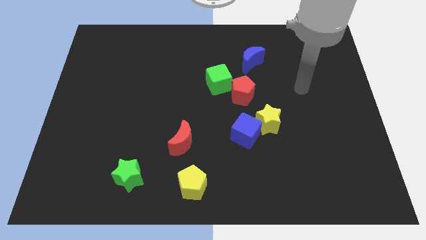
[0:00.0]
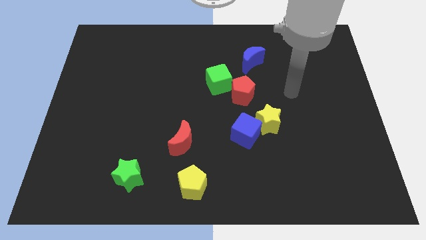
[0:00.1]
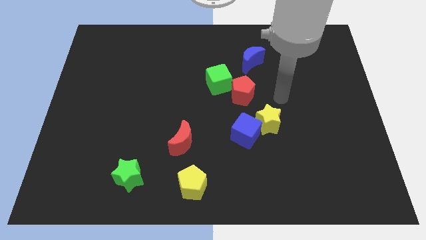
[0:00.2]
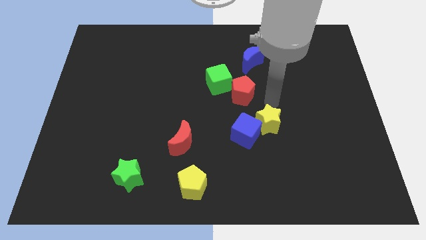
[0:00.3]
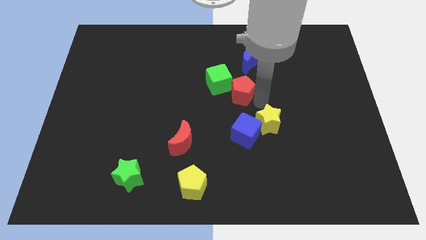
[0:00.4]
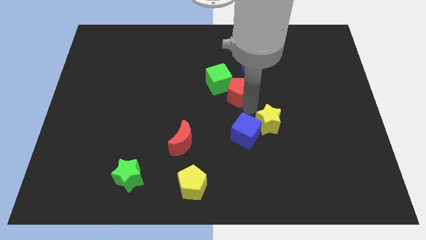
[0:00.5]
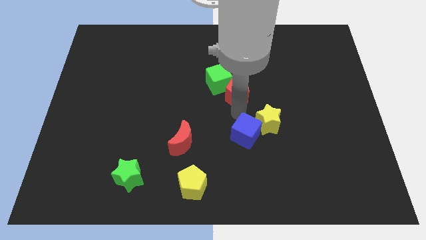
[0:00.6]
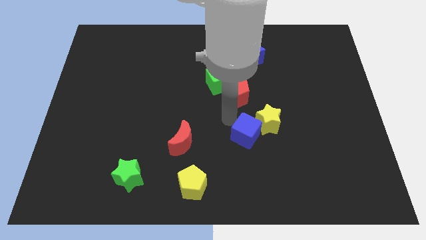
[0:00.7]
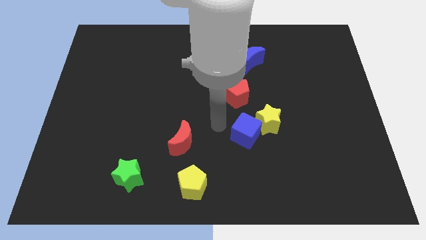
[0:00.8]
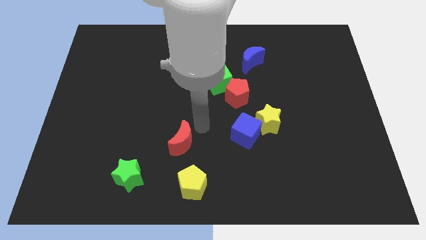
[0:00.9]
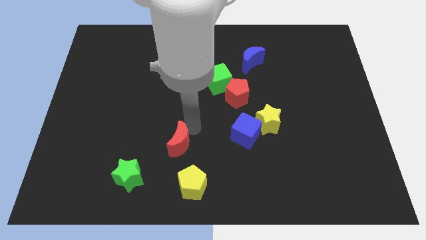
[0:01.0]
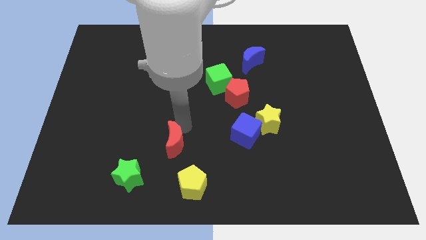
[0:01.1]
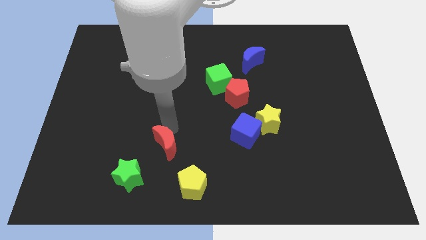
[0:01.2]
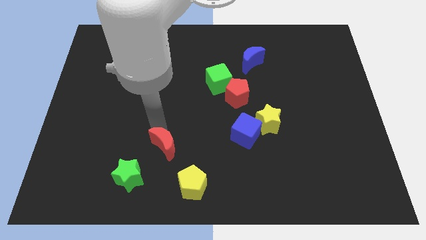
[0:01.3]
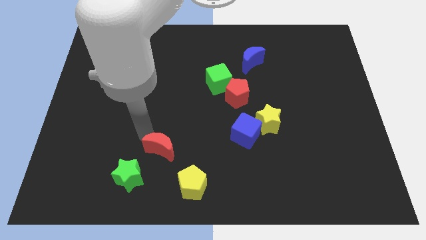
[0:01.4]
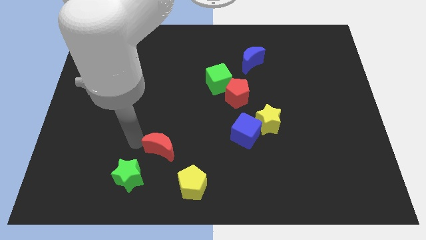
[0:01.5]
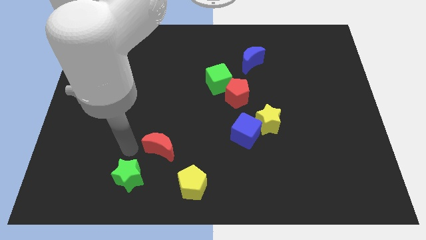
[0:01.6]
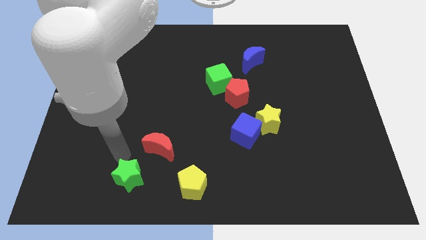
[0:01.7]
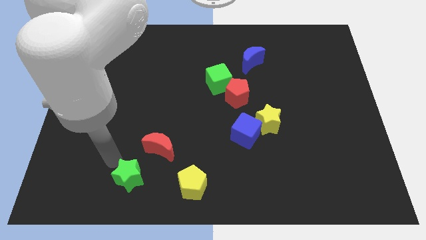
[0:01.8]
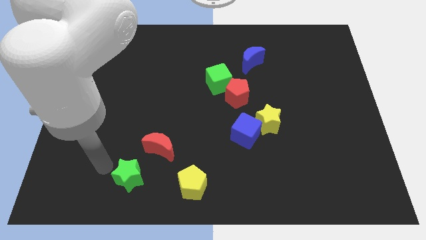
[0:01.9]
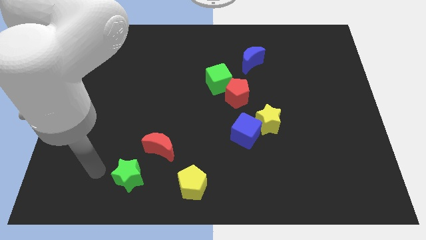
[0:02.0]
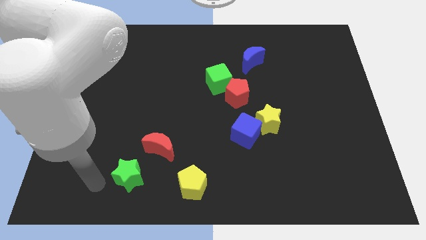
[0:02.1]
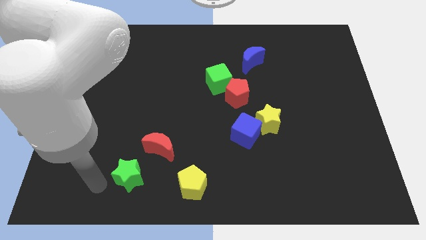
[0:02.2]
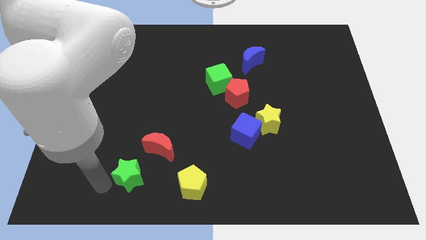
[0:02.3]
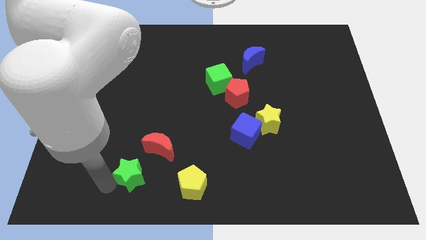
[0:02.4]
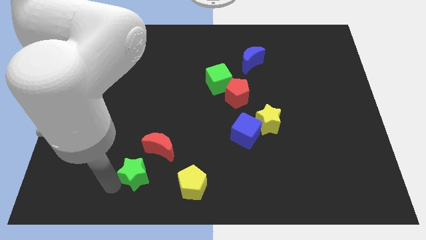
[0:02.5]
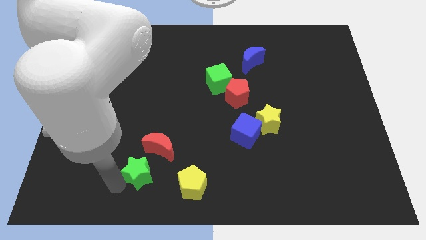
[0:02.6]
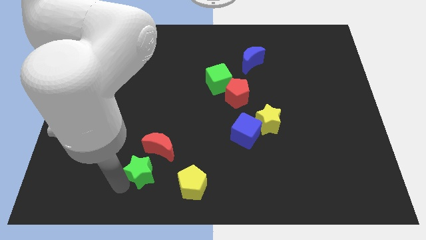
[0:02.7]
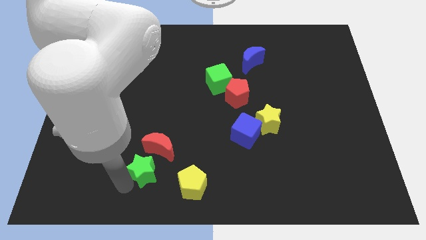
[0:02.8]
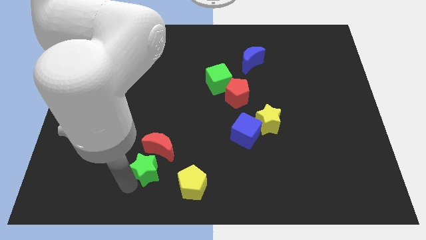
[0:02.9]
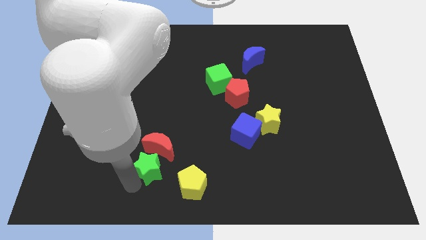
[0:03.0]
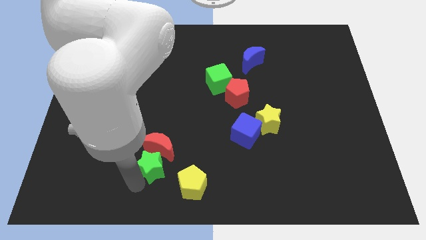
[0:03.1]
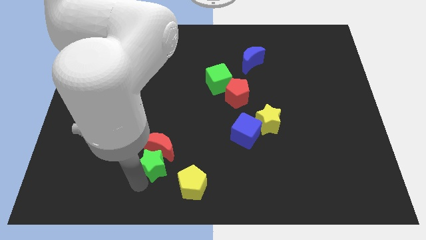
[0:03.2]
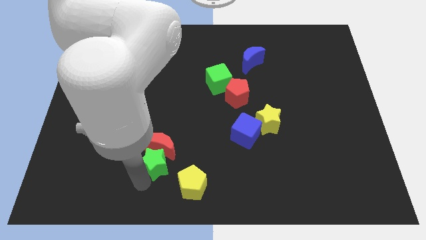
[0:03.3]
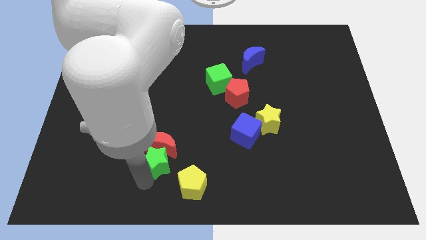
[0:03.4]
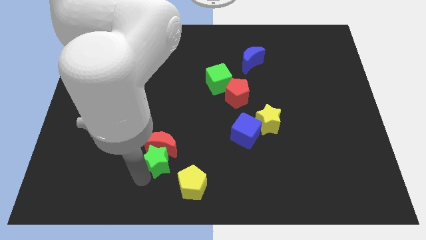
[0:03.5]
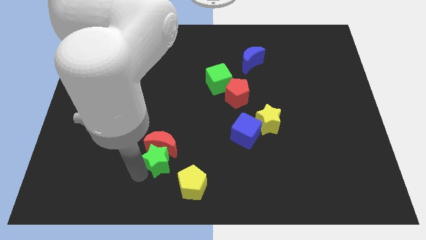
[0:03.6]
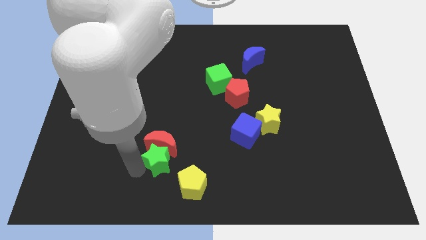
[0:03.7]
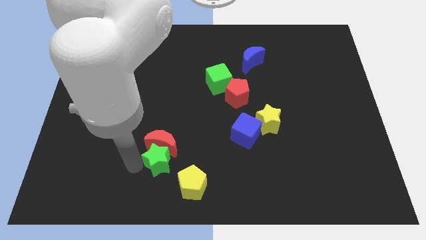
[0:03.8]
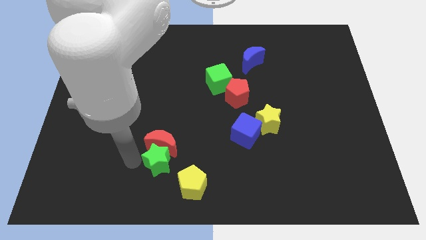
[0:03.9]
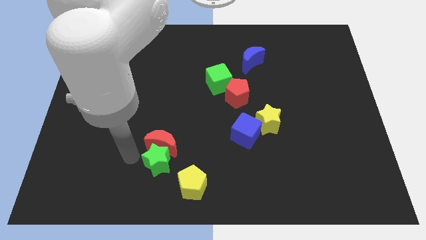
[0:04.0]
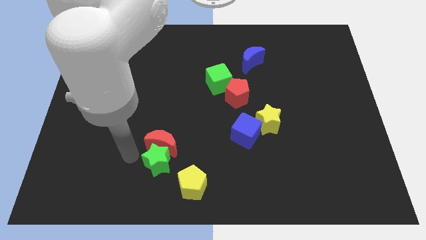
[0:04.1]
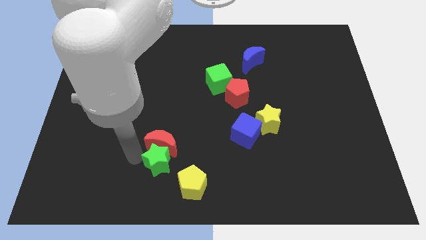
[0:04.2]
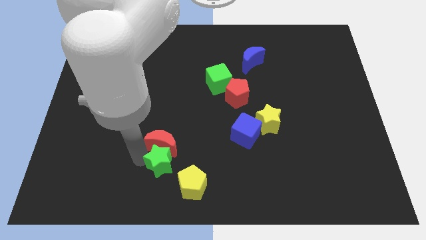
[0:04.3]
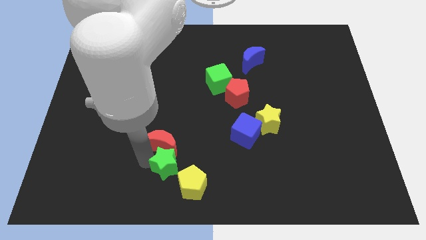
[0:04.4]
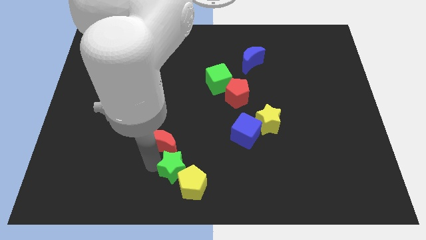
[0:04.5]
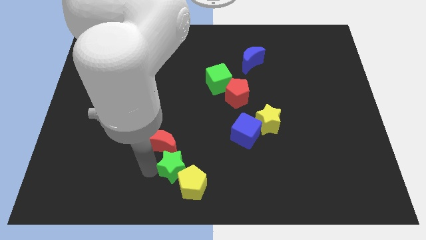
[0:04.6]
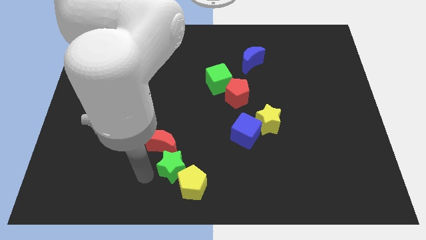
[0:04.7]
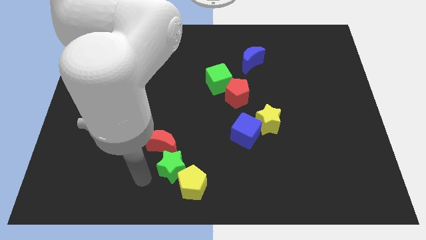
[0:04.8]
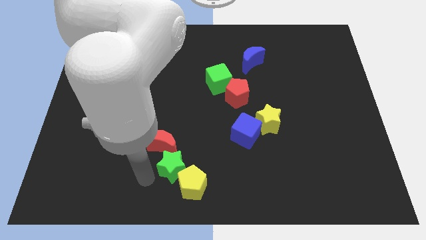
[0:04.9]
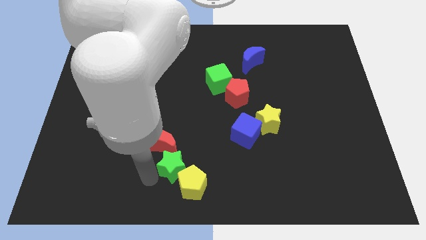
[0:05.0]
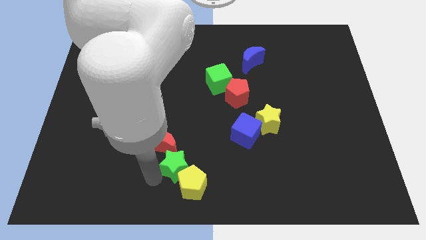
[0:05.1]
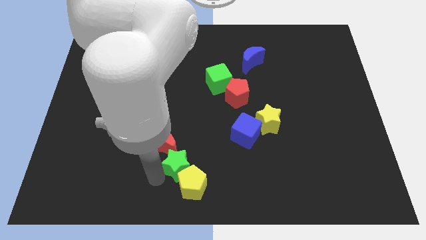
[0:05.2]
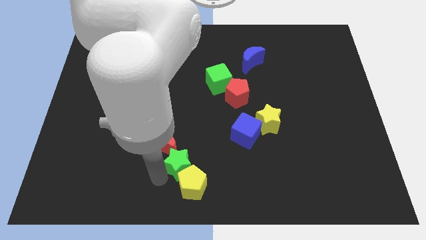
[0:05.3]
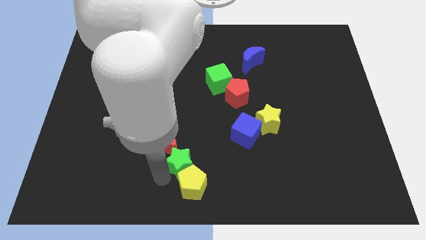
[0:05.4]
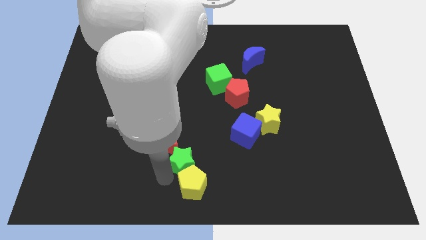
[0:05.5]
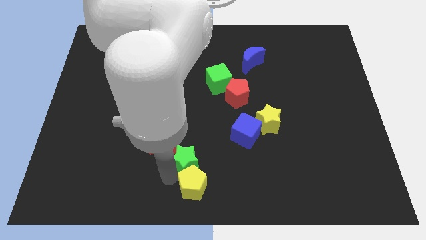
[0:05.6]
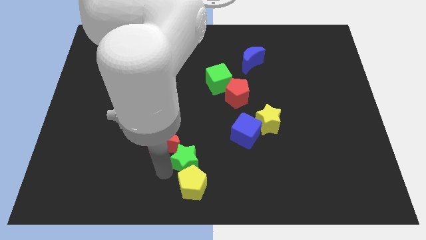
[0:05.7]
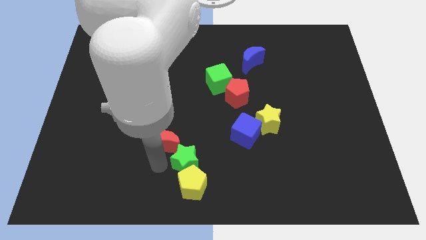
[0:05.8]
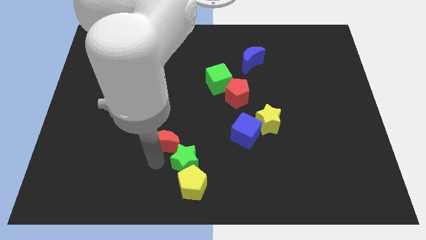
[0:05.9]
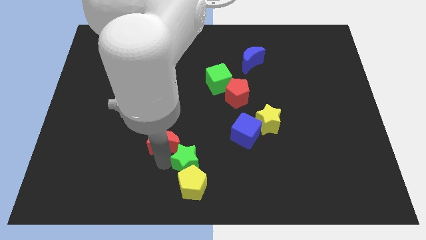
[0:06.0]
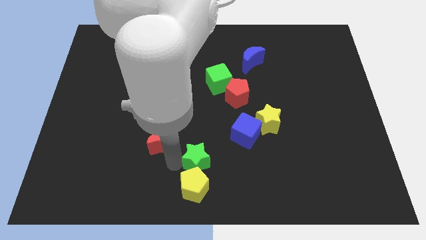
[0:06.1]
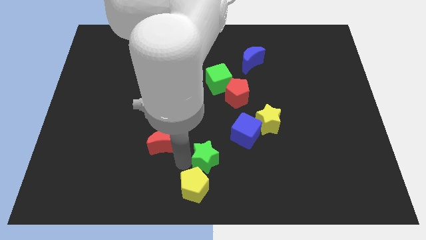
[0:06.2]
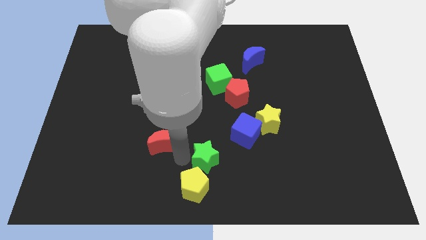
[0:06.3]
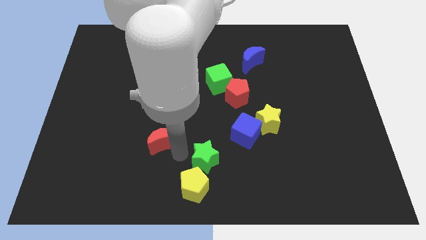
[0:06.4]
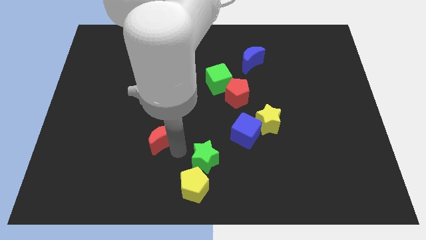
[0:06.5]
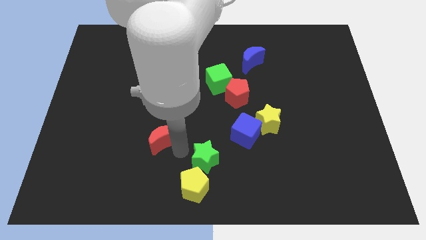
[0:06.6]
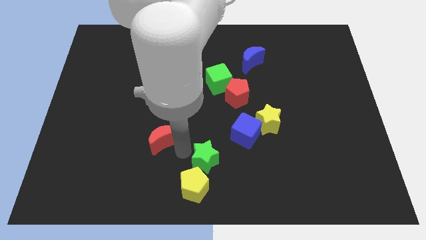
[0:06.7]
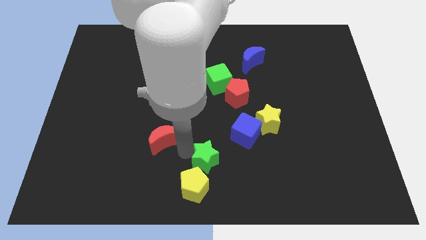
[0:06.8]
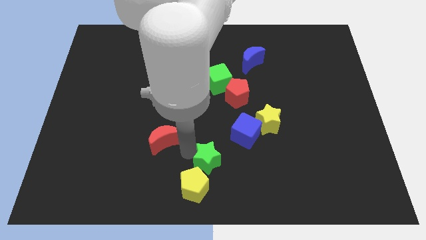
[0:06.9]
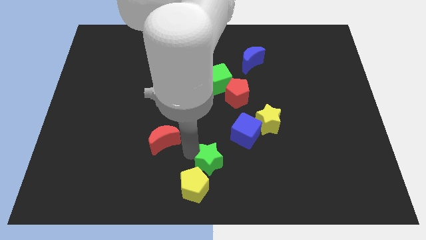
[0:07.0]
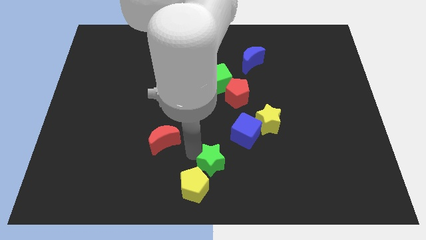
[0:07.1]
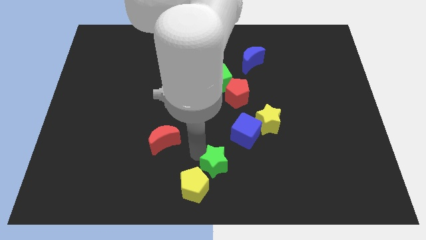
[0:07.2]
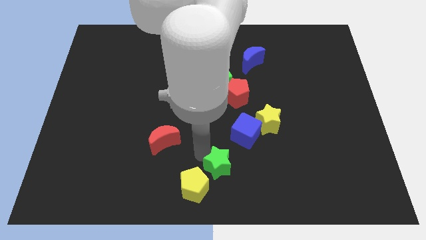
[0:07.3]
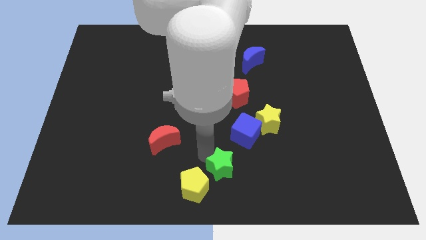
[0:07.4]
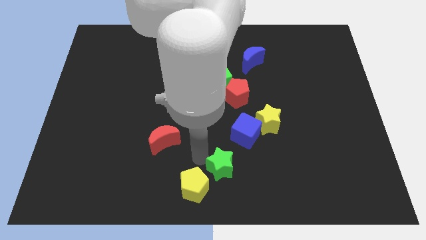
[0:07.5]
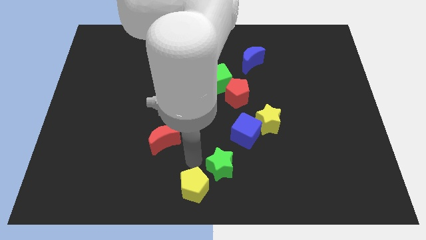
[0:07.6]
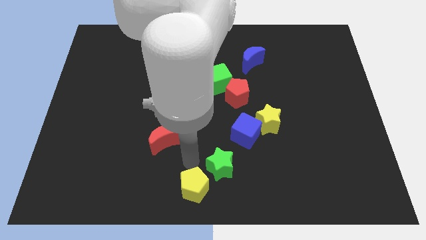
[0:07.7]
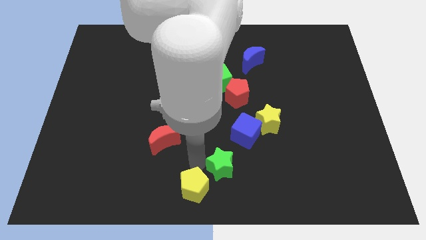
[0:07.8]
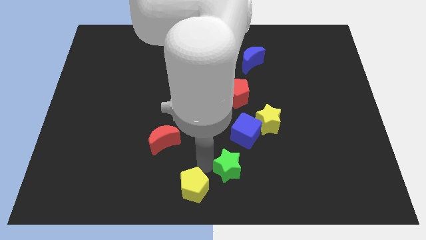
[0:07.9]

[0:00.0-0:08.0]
push the green star to the right

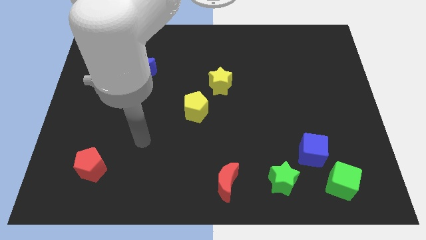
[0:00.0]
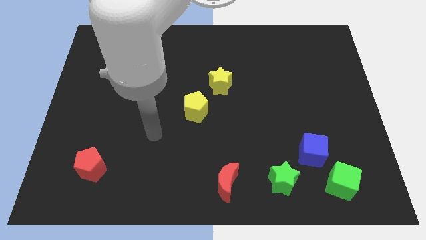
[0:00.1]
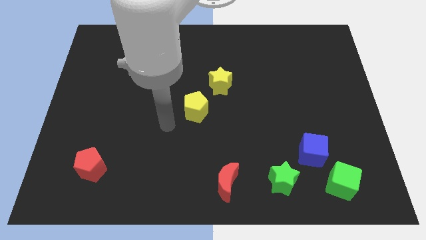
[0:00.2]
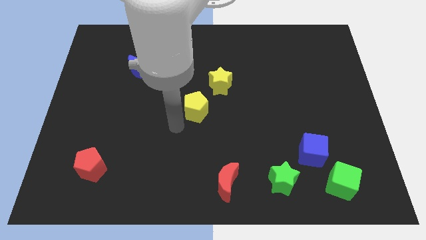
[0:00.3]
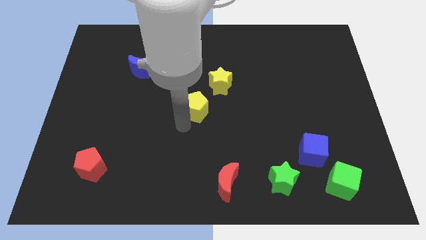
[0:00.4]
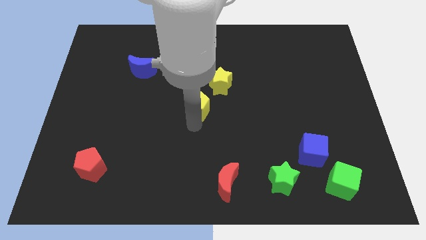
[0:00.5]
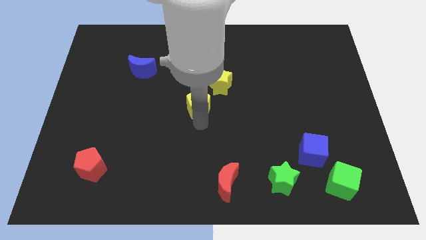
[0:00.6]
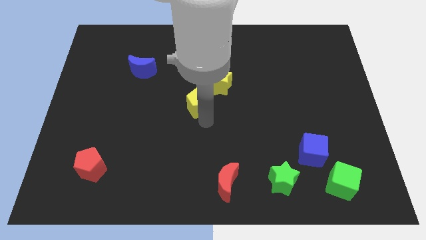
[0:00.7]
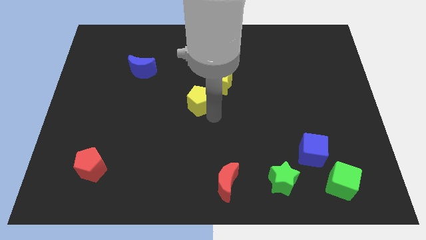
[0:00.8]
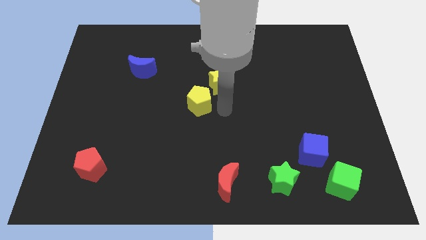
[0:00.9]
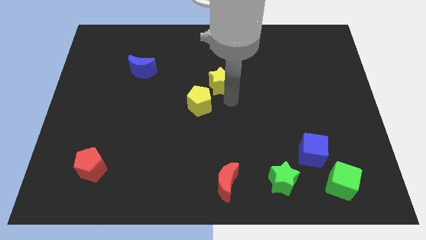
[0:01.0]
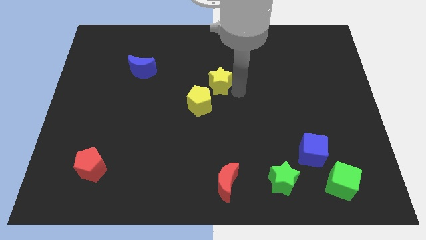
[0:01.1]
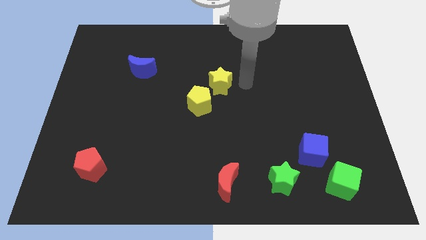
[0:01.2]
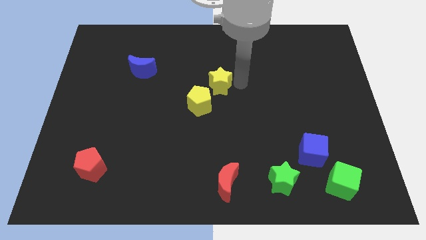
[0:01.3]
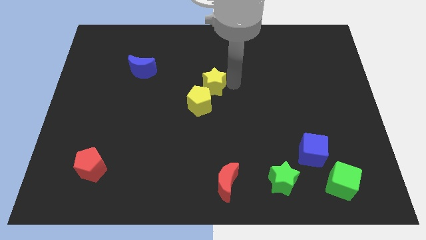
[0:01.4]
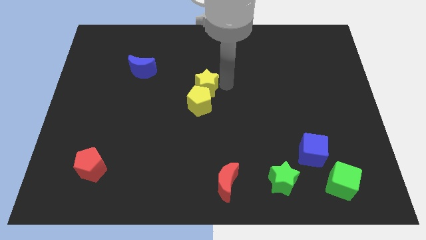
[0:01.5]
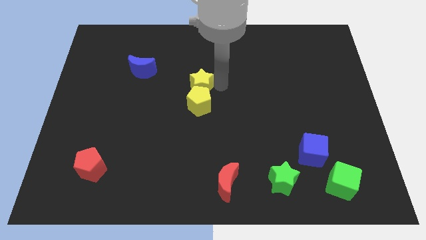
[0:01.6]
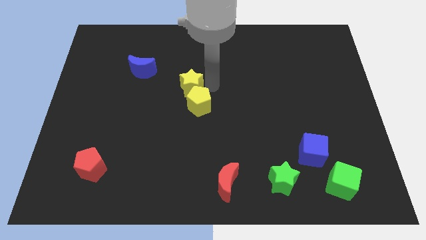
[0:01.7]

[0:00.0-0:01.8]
slightly slide the yellow star to the left
